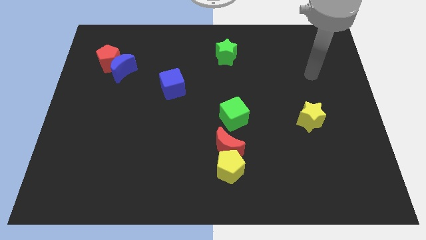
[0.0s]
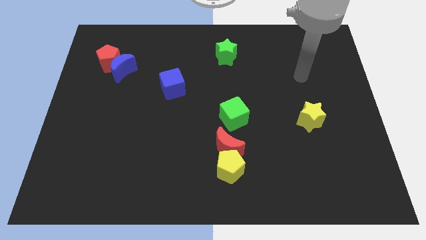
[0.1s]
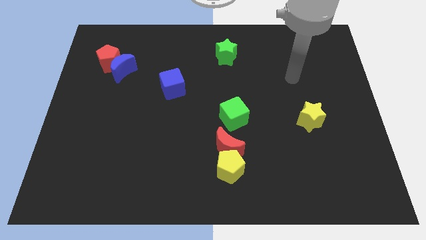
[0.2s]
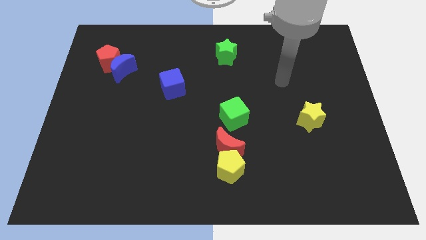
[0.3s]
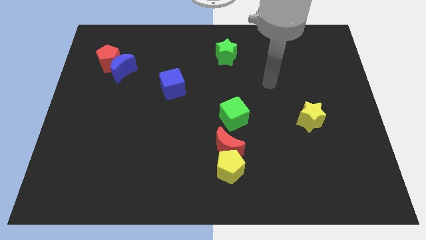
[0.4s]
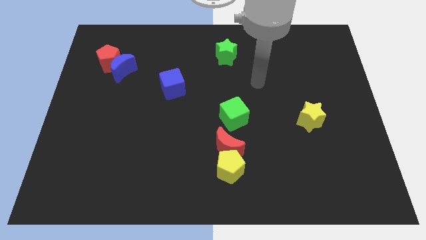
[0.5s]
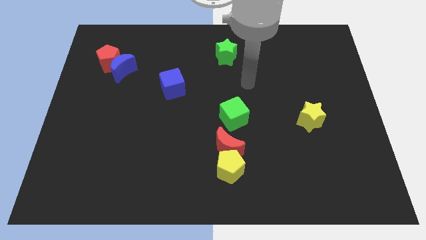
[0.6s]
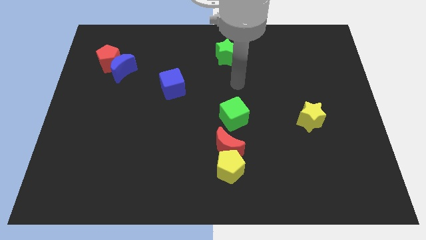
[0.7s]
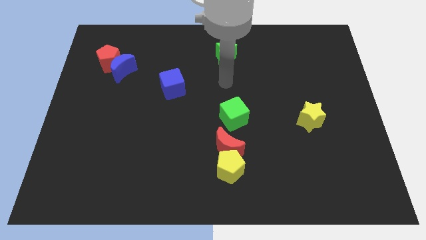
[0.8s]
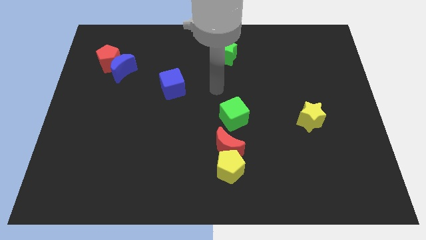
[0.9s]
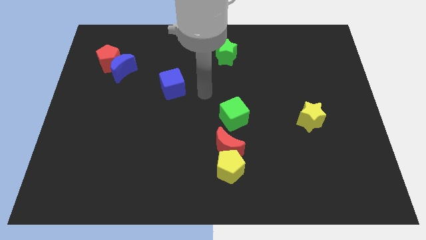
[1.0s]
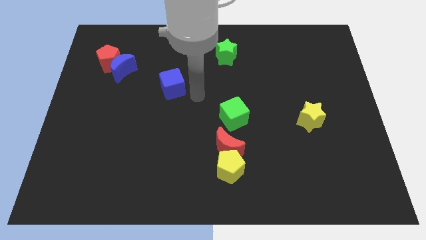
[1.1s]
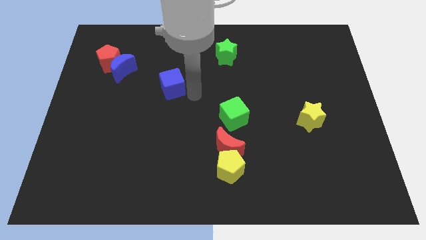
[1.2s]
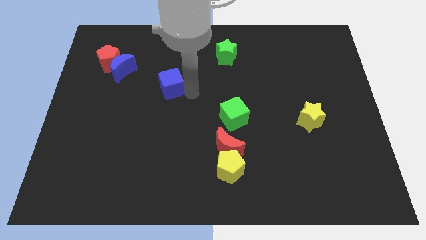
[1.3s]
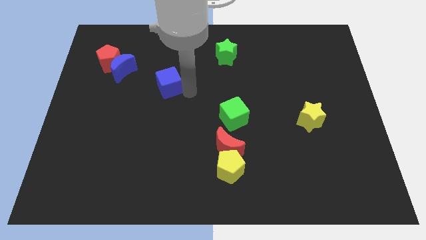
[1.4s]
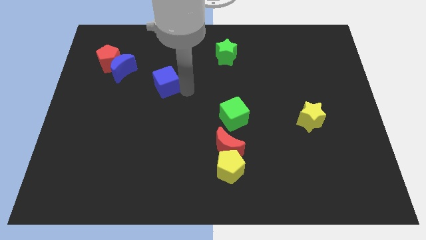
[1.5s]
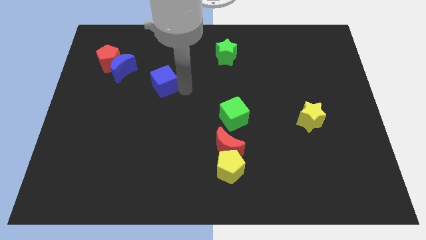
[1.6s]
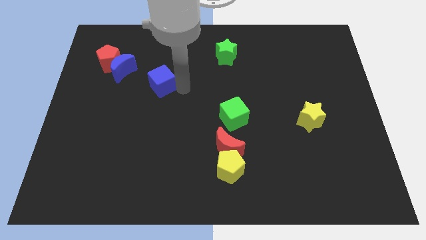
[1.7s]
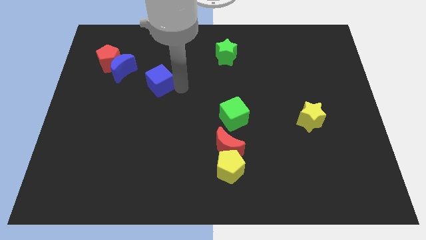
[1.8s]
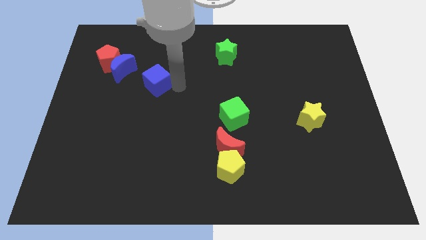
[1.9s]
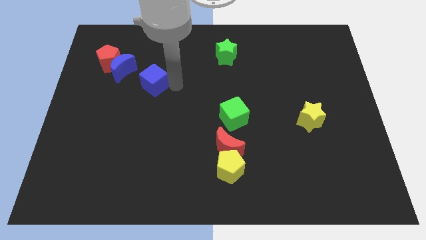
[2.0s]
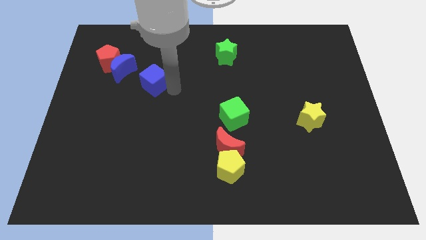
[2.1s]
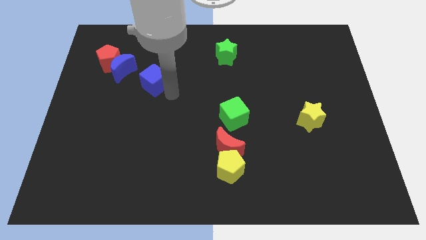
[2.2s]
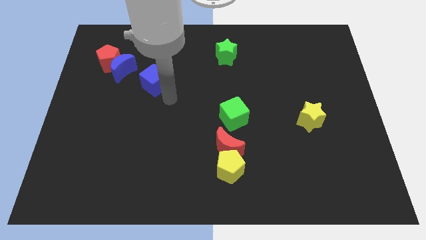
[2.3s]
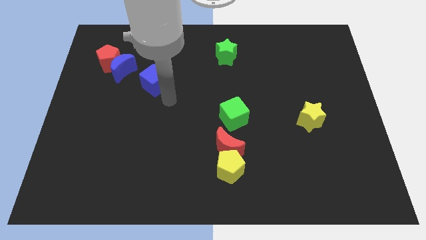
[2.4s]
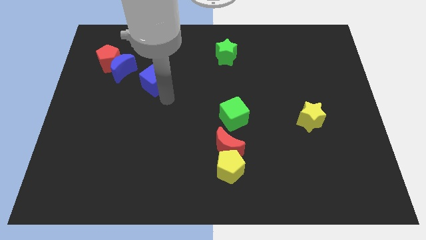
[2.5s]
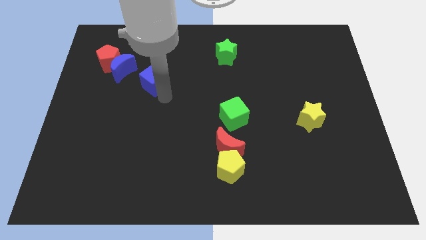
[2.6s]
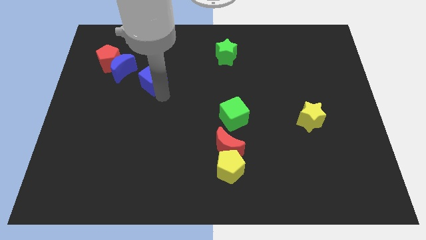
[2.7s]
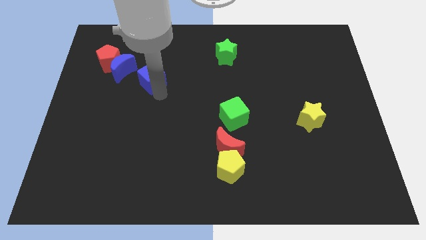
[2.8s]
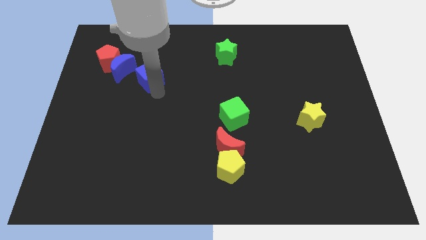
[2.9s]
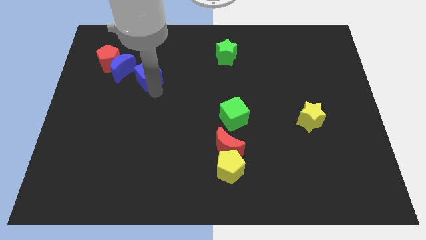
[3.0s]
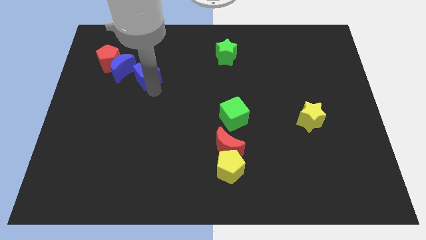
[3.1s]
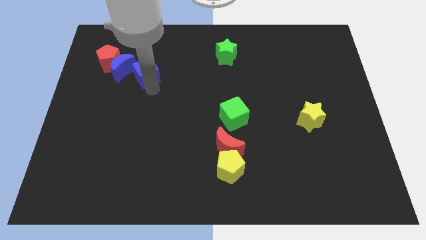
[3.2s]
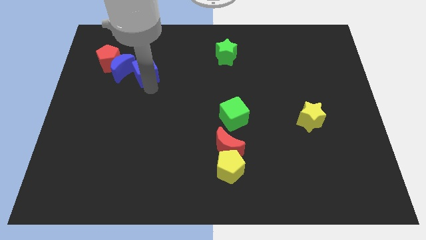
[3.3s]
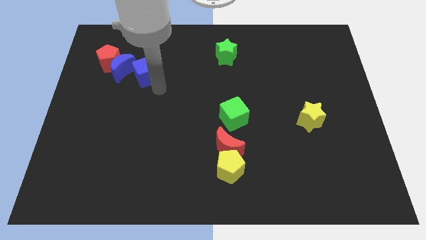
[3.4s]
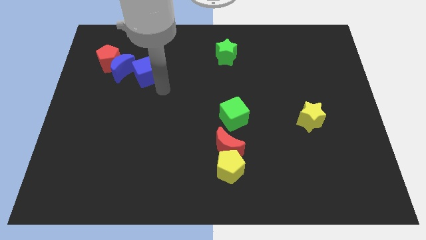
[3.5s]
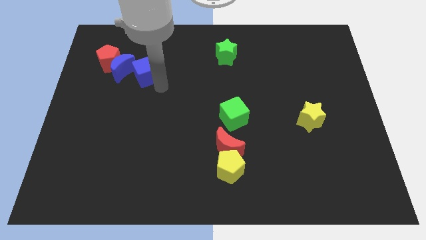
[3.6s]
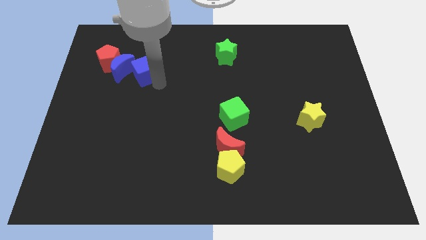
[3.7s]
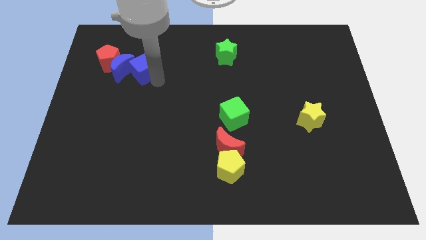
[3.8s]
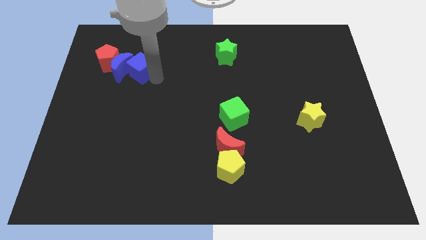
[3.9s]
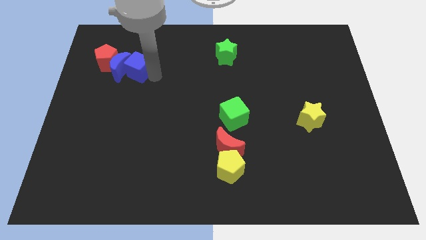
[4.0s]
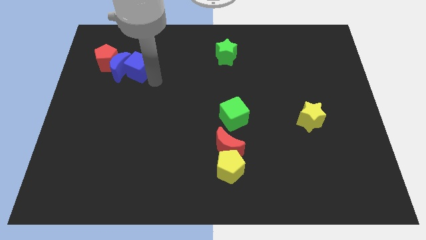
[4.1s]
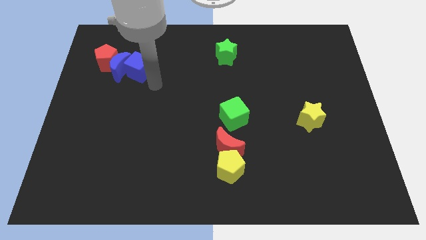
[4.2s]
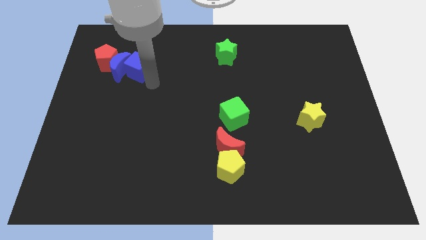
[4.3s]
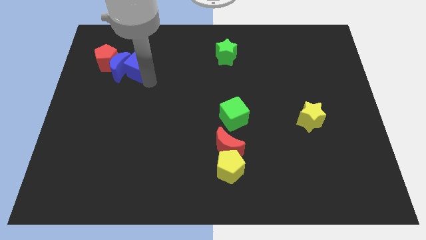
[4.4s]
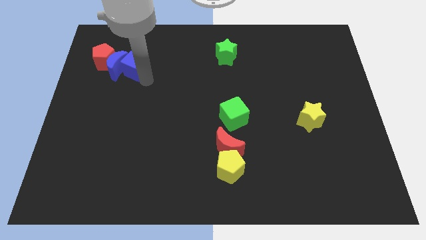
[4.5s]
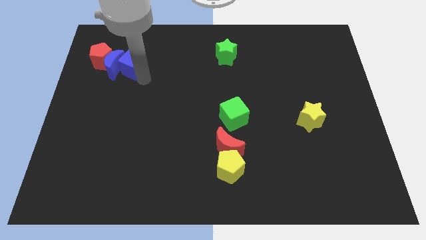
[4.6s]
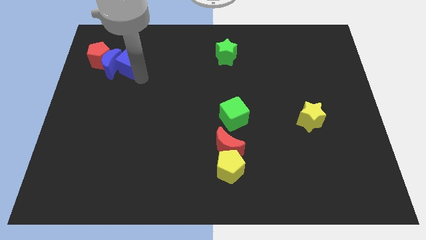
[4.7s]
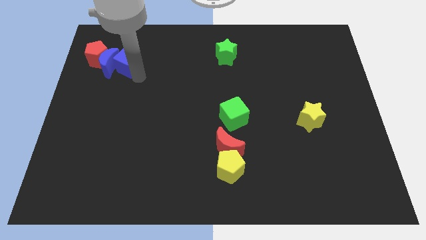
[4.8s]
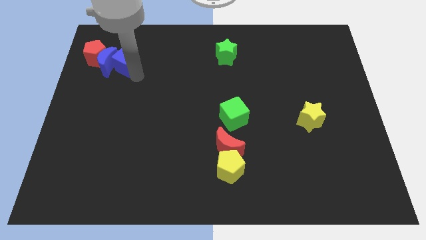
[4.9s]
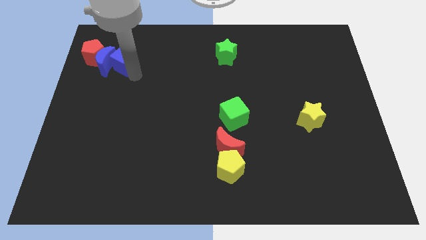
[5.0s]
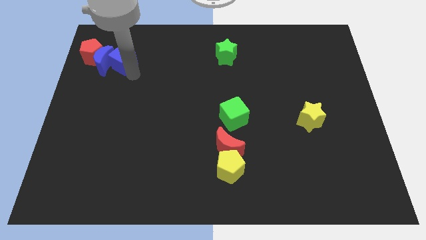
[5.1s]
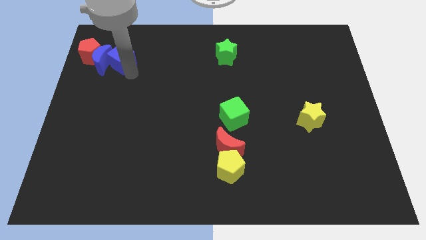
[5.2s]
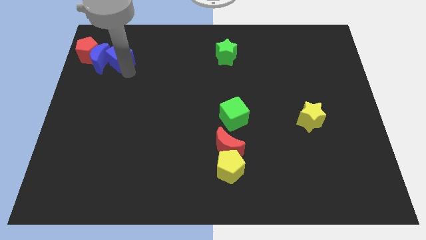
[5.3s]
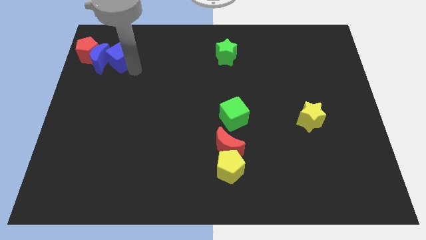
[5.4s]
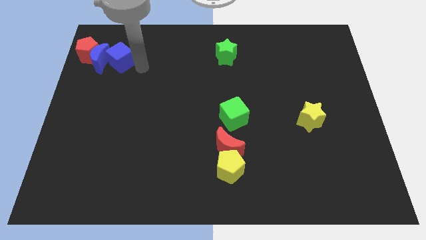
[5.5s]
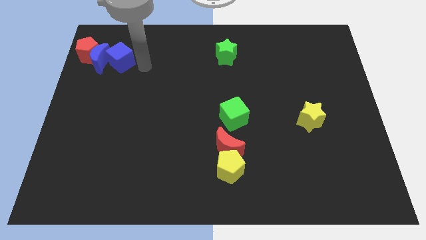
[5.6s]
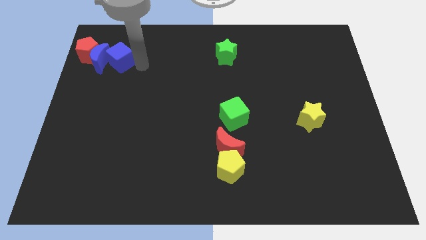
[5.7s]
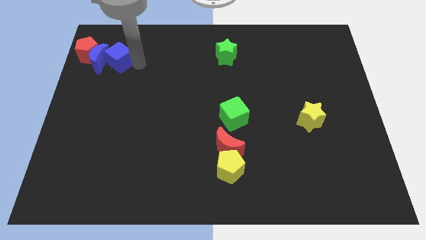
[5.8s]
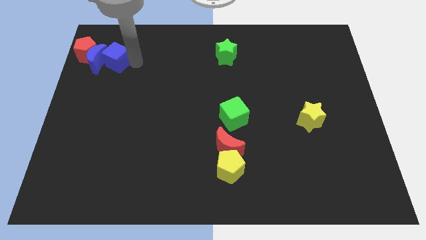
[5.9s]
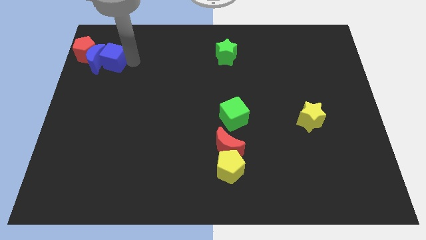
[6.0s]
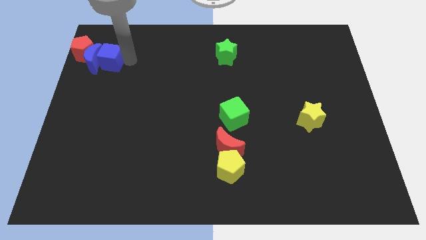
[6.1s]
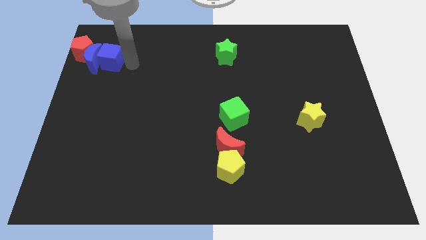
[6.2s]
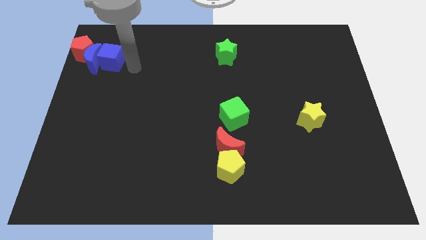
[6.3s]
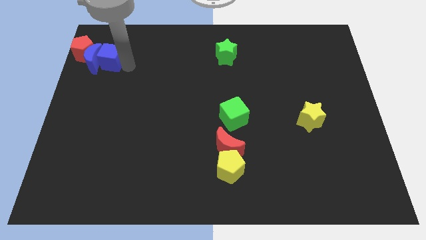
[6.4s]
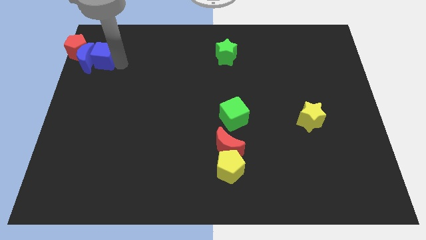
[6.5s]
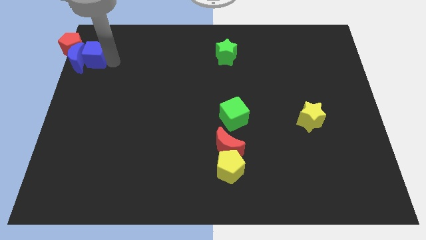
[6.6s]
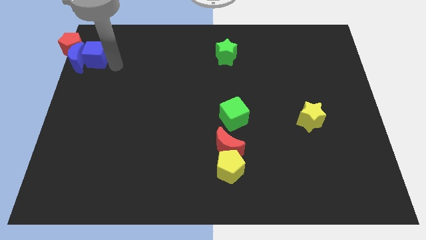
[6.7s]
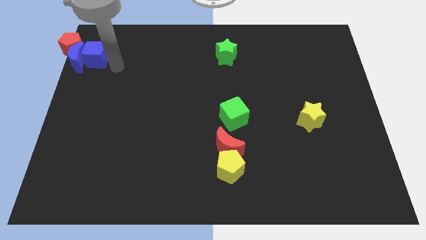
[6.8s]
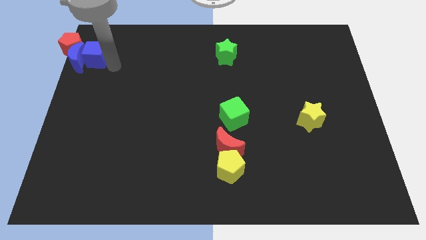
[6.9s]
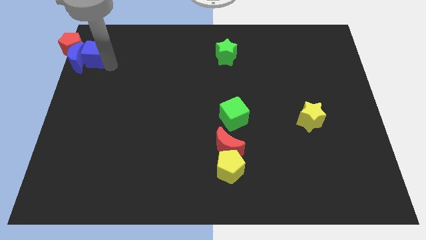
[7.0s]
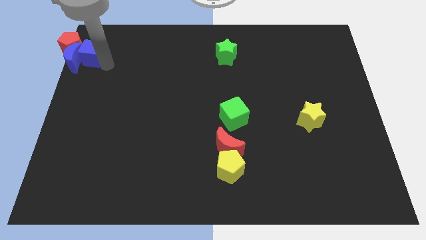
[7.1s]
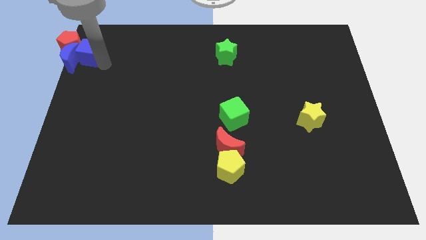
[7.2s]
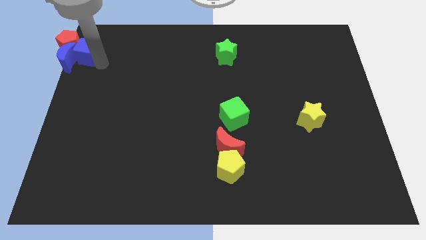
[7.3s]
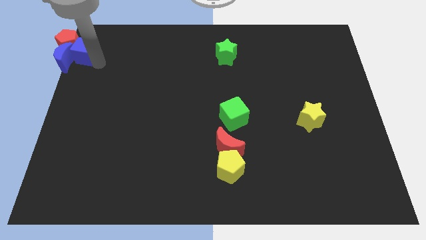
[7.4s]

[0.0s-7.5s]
push the blue cube to the red pentagon
